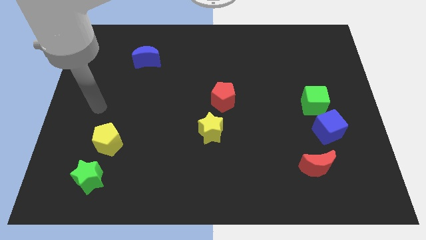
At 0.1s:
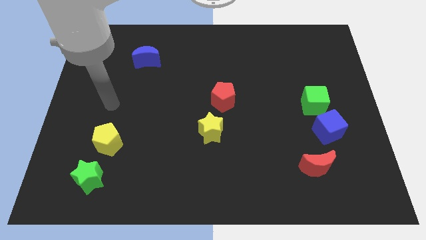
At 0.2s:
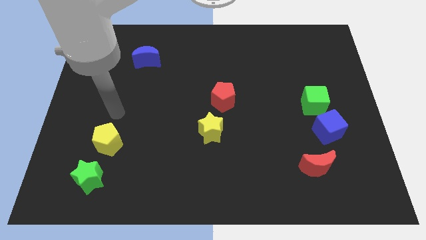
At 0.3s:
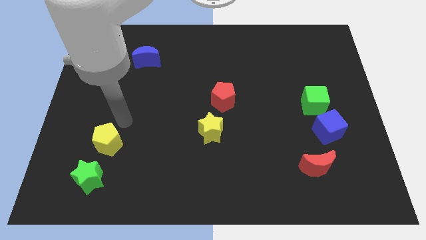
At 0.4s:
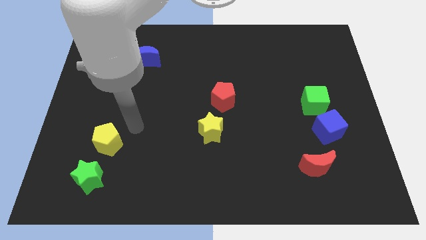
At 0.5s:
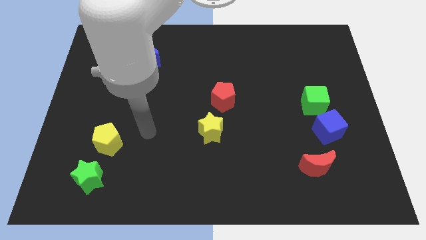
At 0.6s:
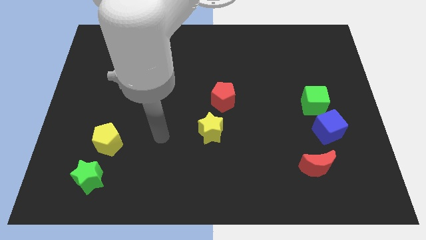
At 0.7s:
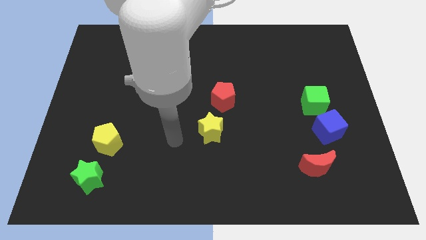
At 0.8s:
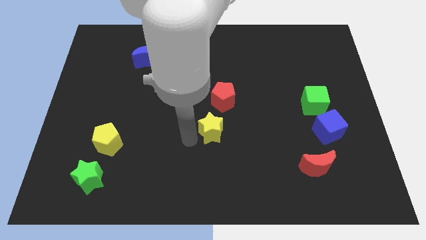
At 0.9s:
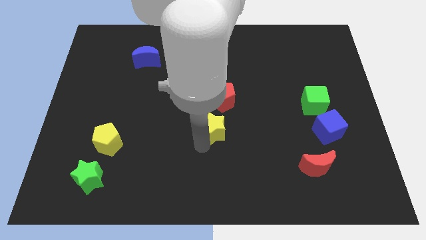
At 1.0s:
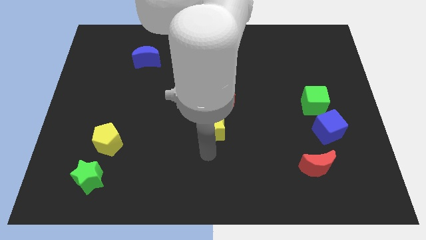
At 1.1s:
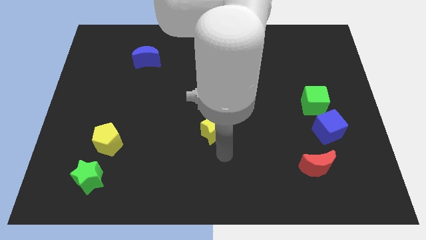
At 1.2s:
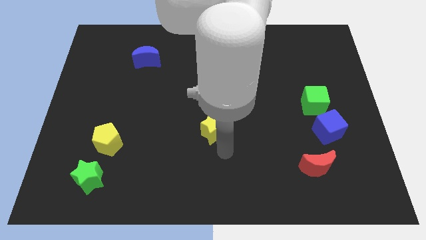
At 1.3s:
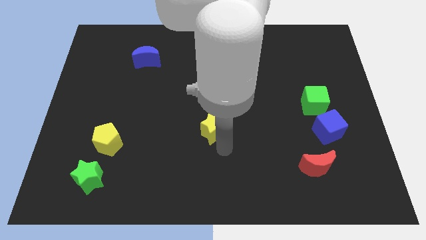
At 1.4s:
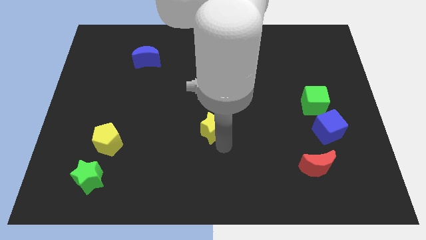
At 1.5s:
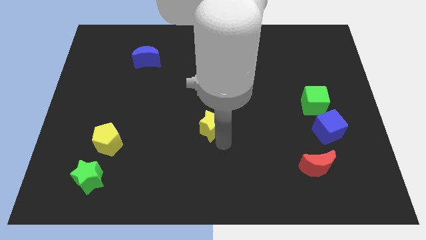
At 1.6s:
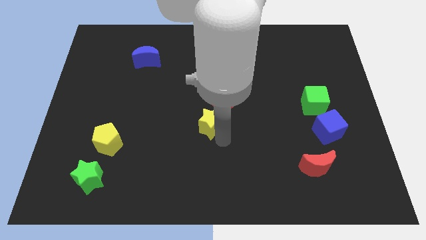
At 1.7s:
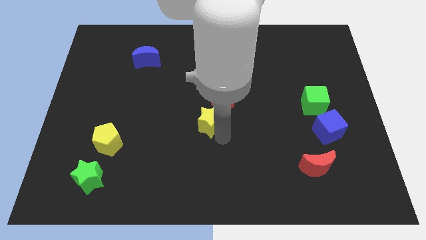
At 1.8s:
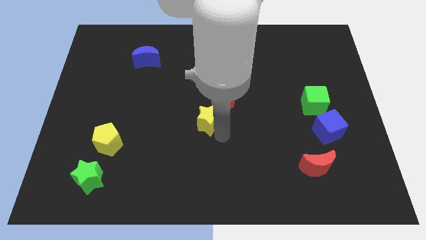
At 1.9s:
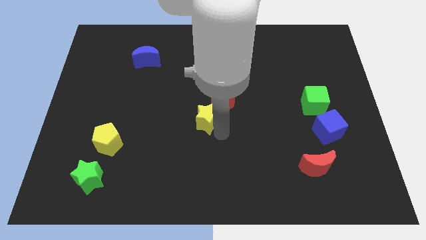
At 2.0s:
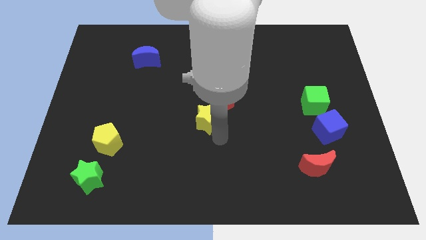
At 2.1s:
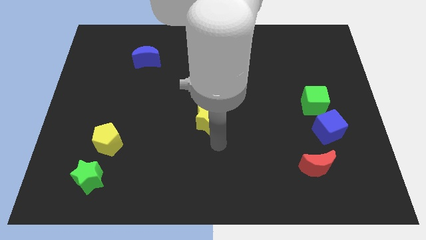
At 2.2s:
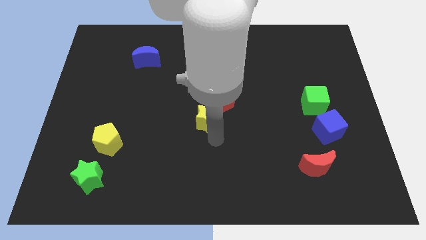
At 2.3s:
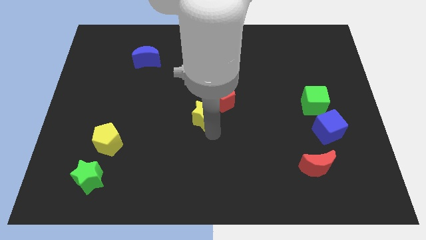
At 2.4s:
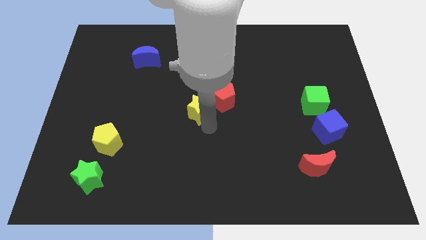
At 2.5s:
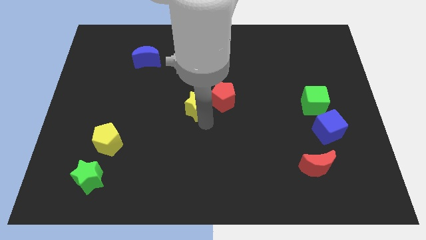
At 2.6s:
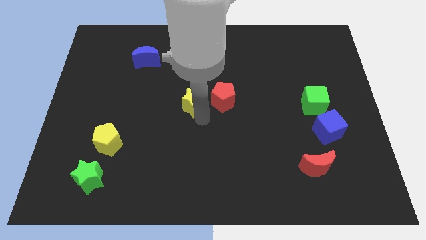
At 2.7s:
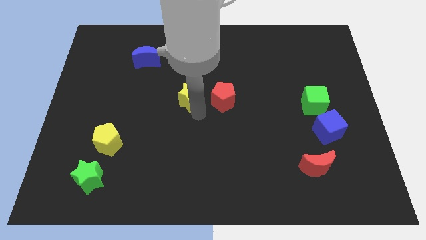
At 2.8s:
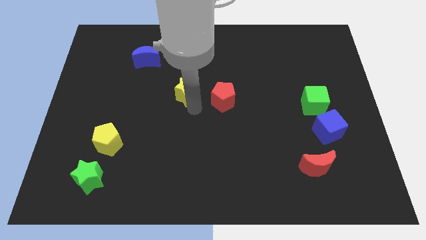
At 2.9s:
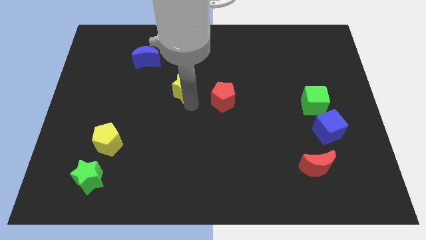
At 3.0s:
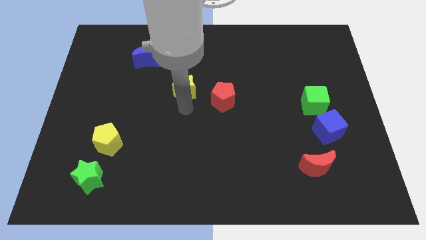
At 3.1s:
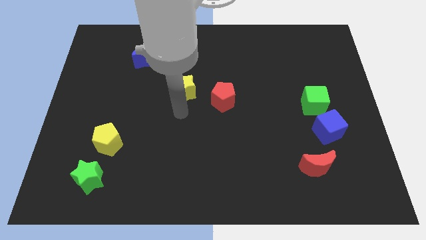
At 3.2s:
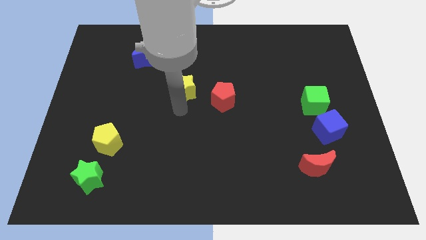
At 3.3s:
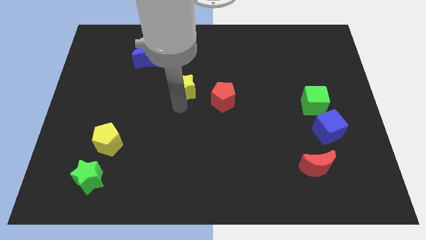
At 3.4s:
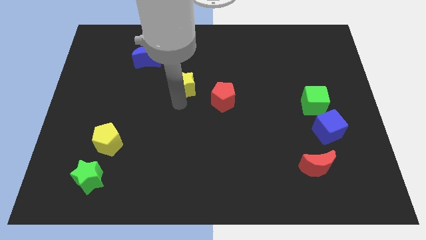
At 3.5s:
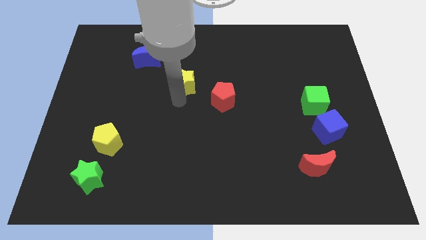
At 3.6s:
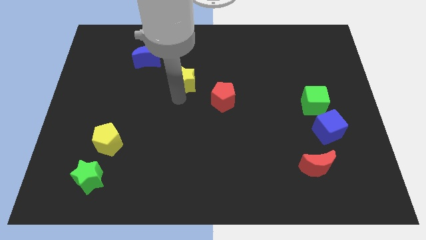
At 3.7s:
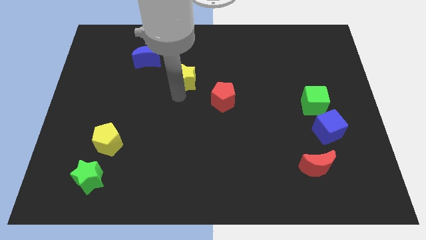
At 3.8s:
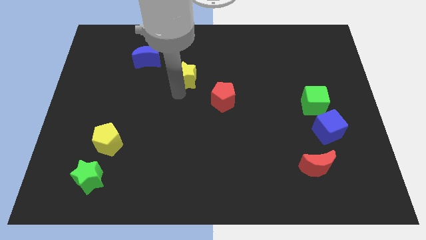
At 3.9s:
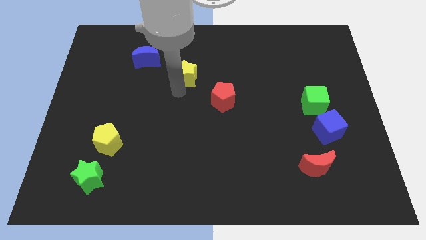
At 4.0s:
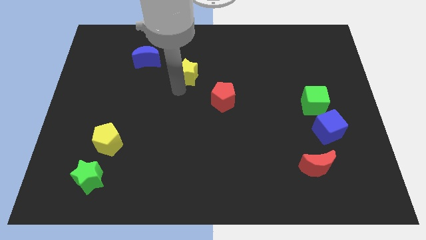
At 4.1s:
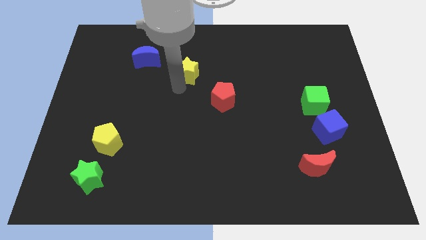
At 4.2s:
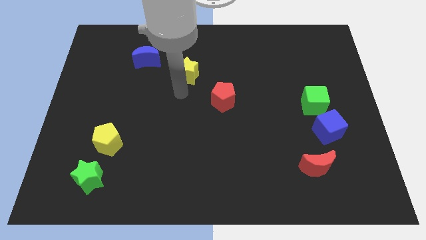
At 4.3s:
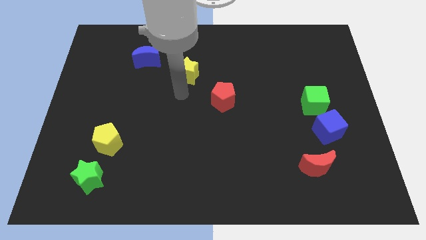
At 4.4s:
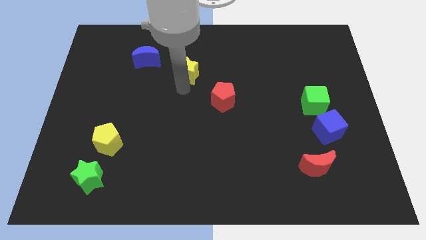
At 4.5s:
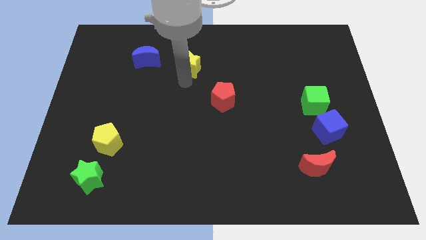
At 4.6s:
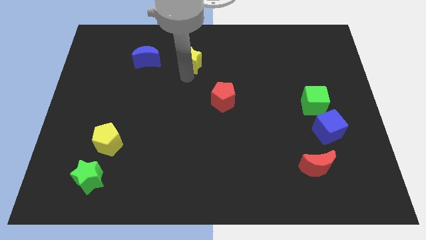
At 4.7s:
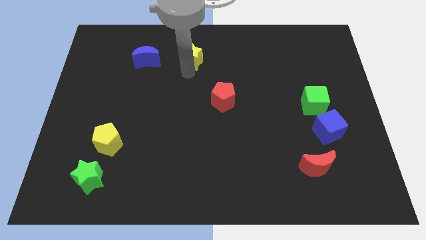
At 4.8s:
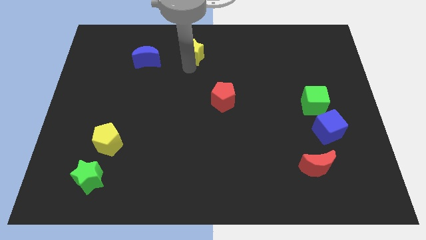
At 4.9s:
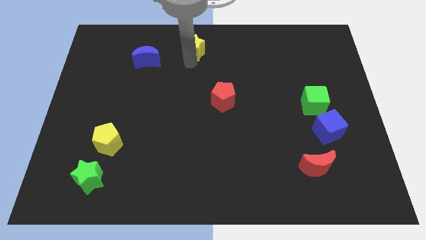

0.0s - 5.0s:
slide the yellow star to the top side
